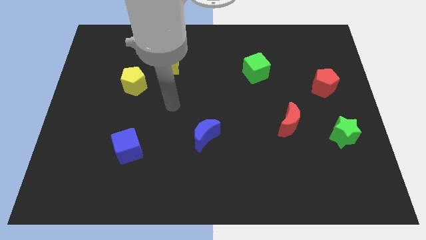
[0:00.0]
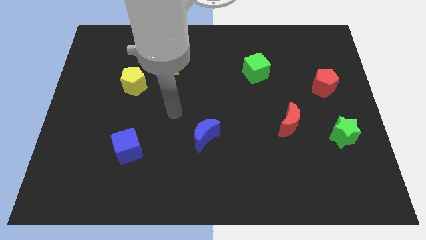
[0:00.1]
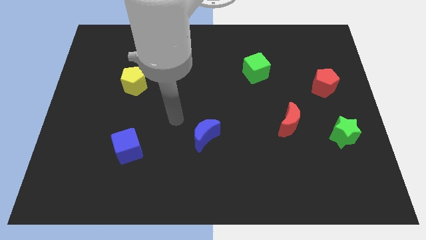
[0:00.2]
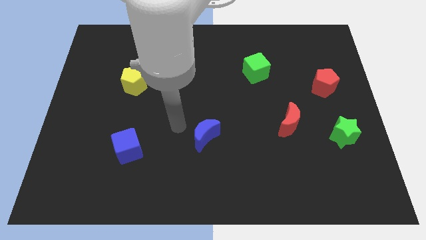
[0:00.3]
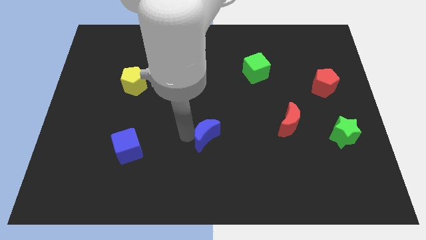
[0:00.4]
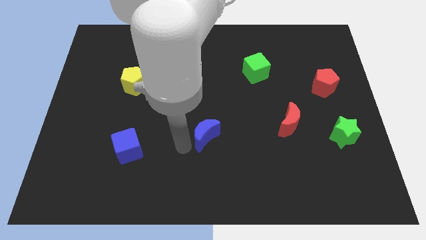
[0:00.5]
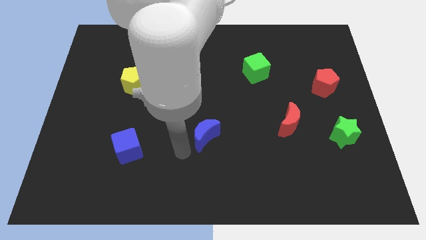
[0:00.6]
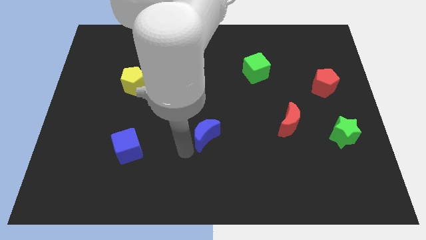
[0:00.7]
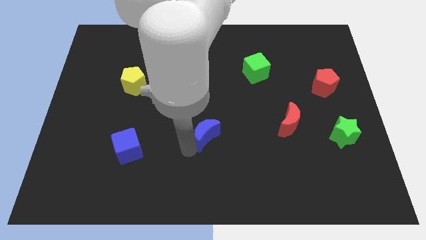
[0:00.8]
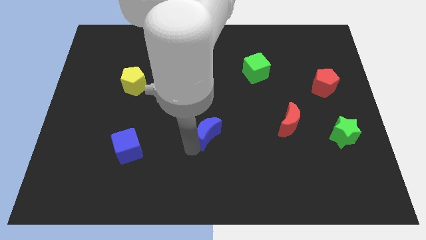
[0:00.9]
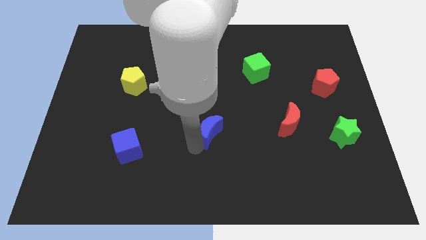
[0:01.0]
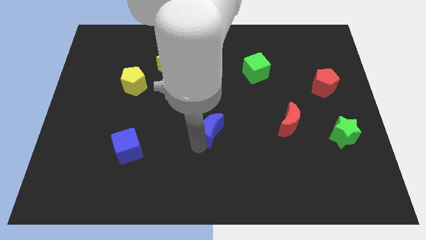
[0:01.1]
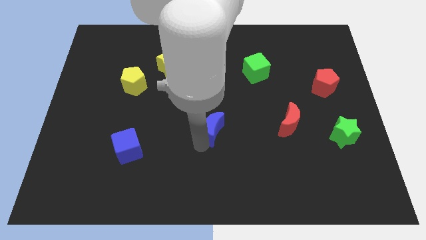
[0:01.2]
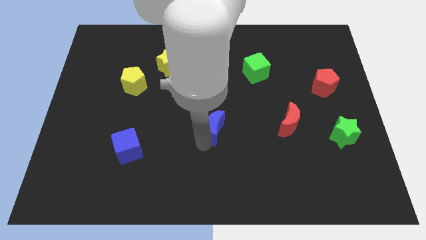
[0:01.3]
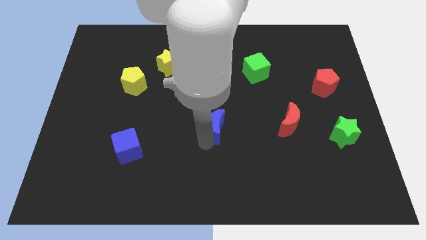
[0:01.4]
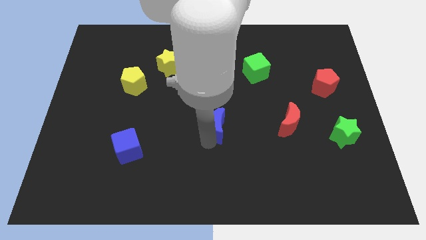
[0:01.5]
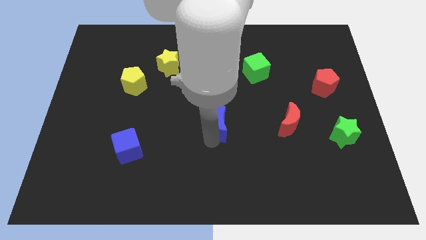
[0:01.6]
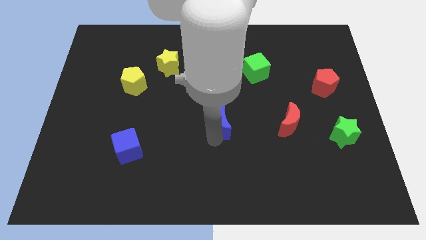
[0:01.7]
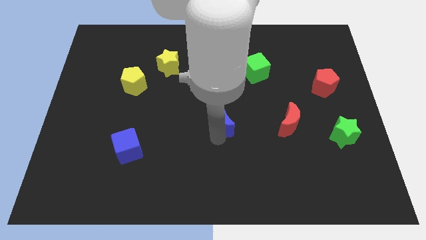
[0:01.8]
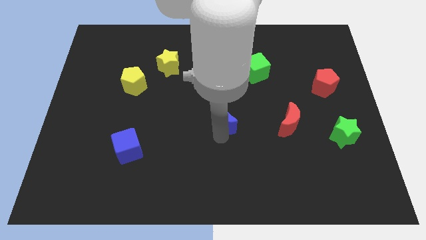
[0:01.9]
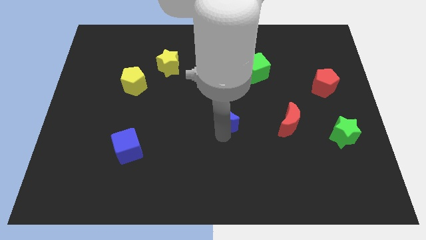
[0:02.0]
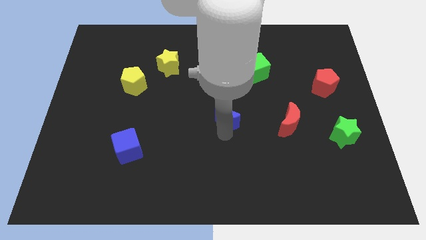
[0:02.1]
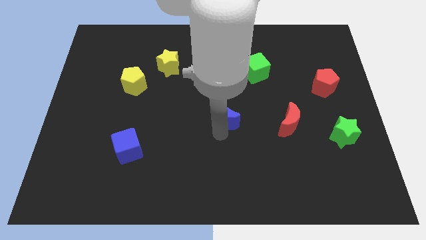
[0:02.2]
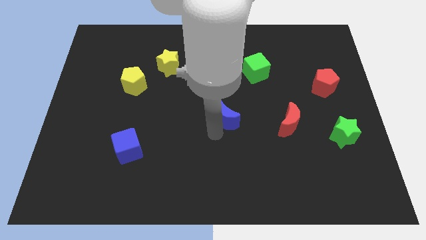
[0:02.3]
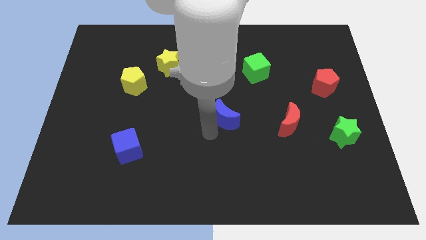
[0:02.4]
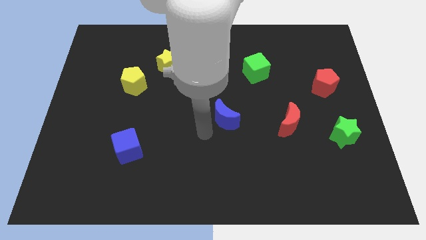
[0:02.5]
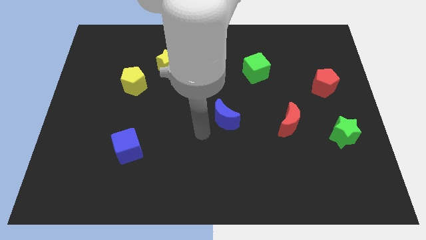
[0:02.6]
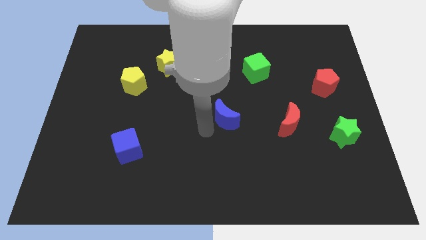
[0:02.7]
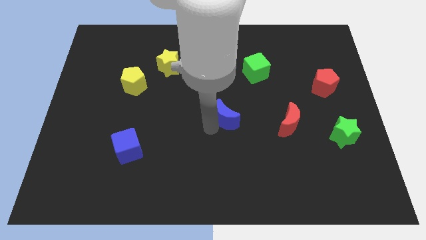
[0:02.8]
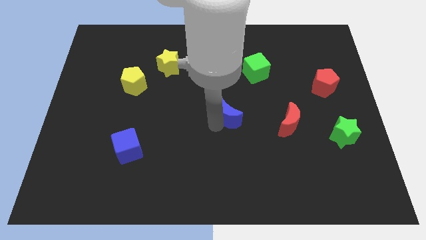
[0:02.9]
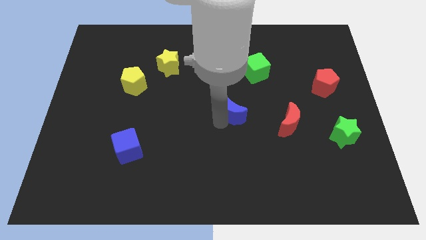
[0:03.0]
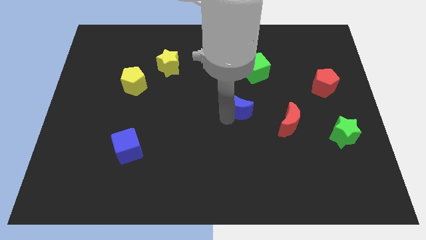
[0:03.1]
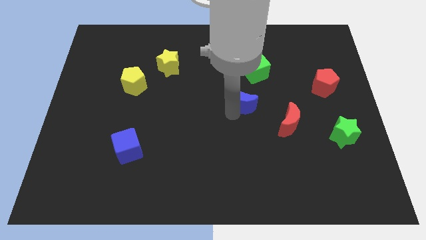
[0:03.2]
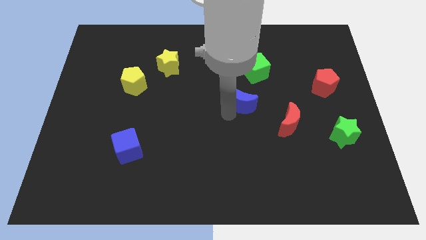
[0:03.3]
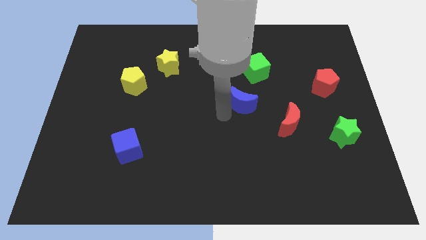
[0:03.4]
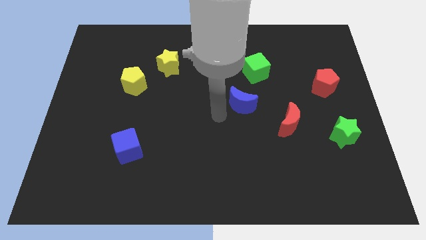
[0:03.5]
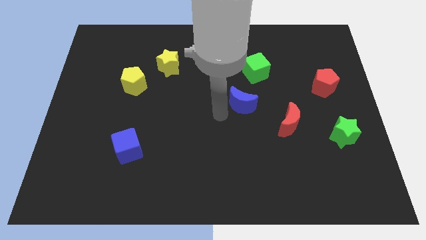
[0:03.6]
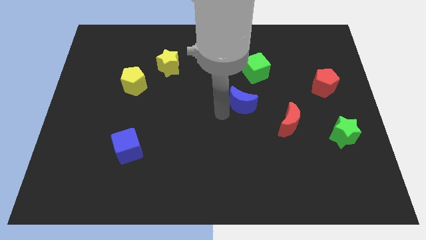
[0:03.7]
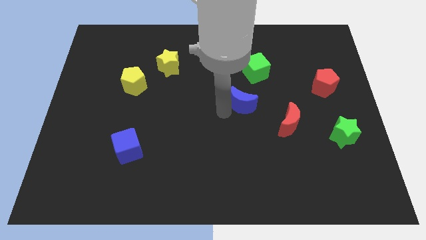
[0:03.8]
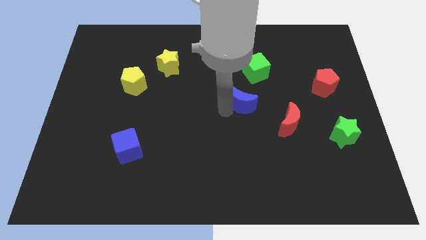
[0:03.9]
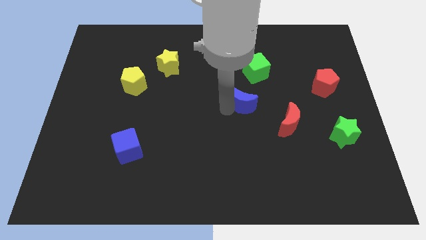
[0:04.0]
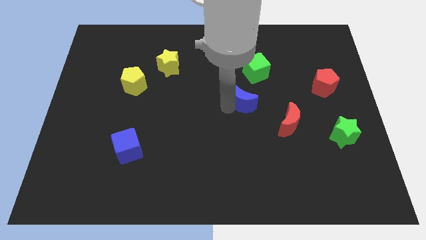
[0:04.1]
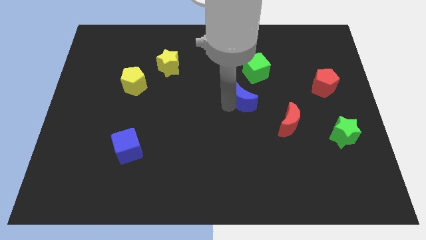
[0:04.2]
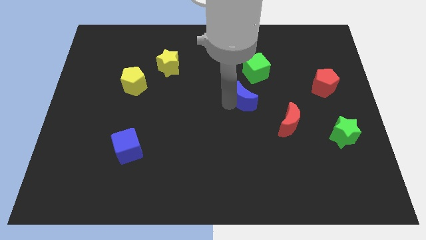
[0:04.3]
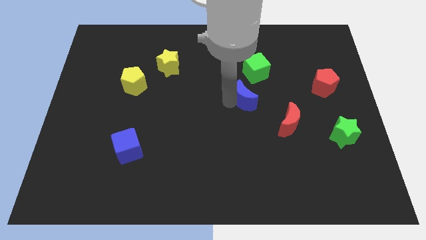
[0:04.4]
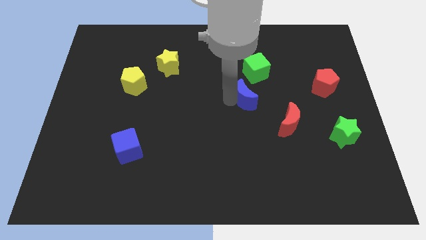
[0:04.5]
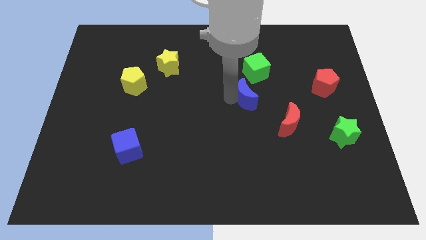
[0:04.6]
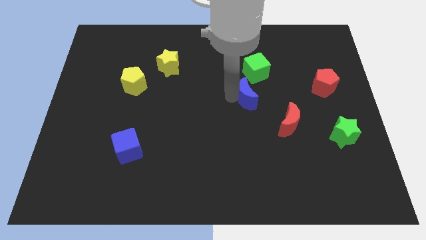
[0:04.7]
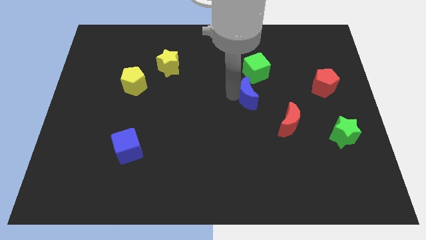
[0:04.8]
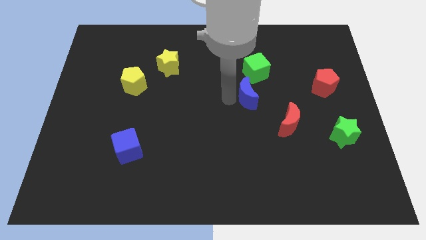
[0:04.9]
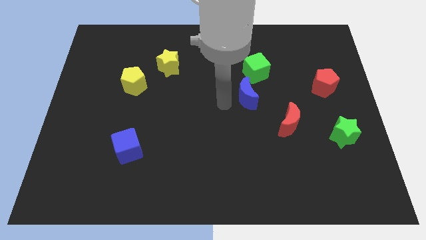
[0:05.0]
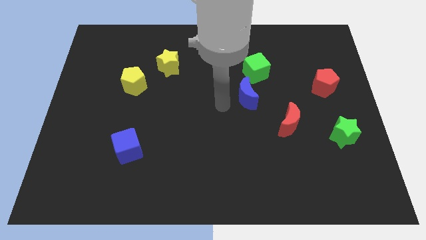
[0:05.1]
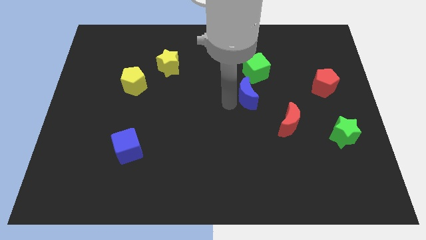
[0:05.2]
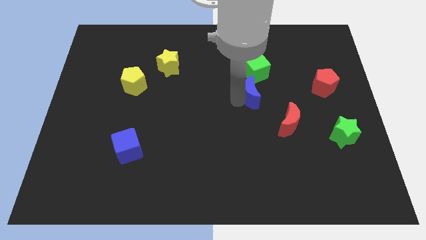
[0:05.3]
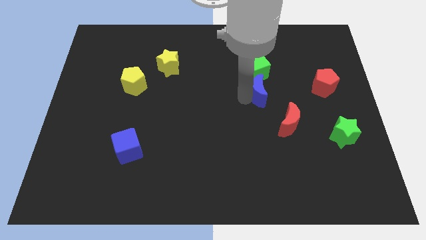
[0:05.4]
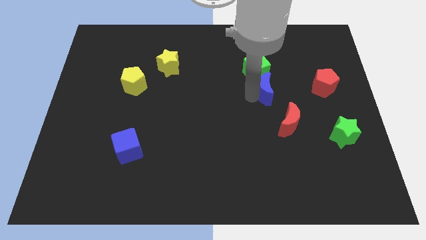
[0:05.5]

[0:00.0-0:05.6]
push the blue moon diagonally down and to the right of the green cube

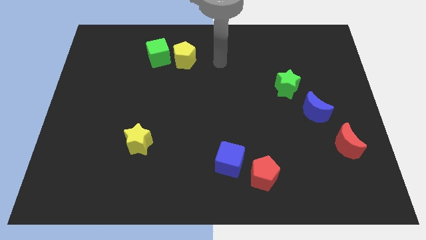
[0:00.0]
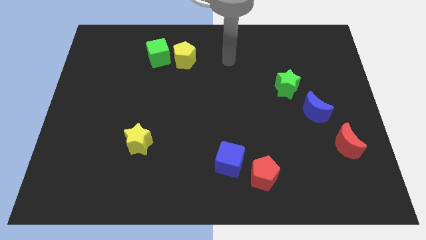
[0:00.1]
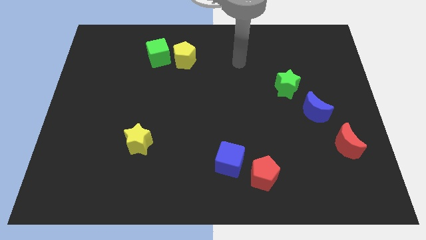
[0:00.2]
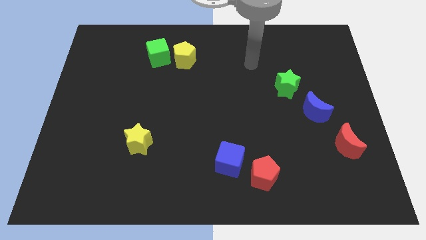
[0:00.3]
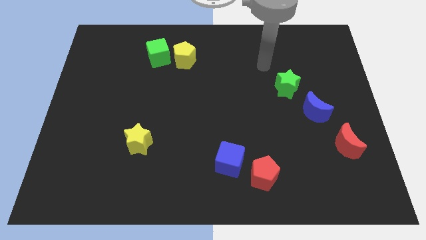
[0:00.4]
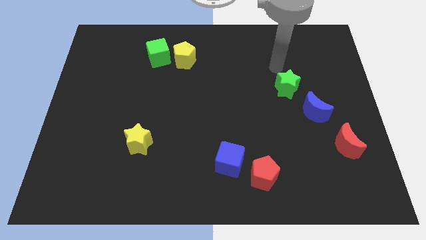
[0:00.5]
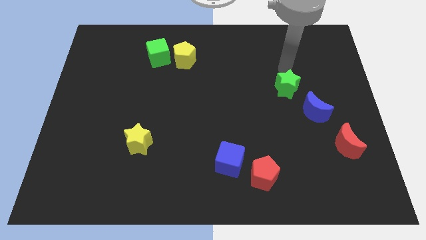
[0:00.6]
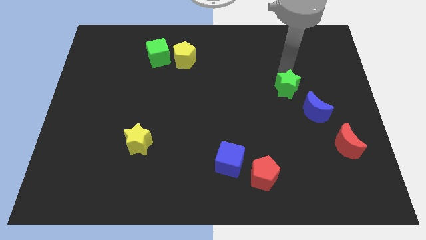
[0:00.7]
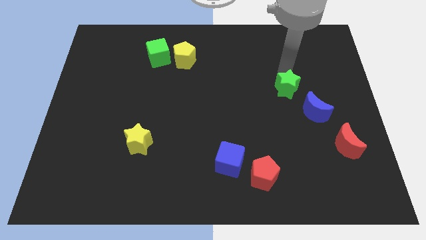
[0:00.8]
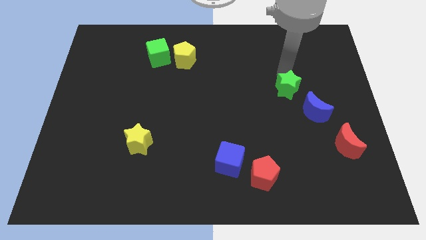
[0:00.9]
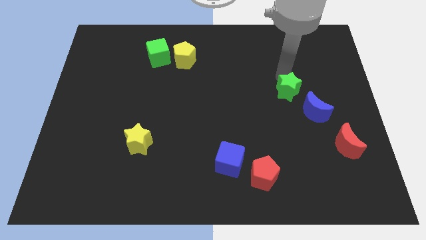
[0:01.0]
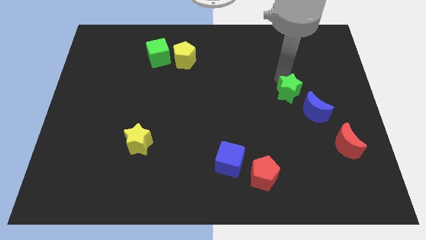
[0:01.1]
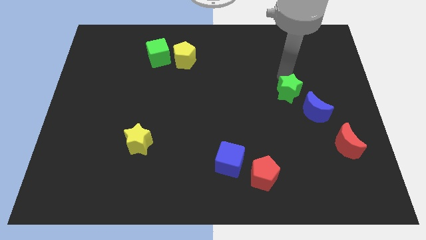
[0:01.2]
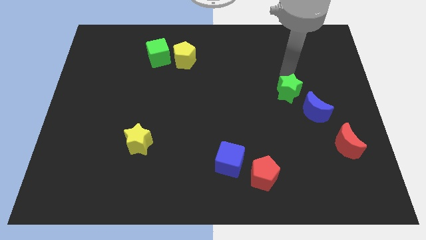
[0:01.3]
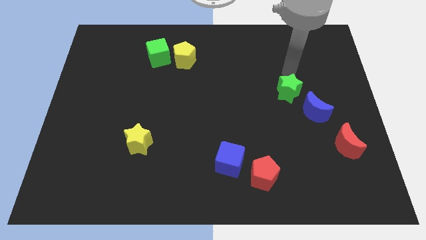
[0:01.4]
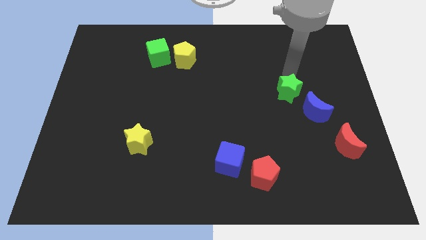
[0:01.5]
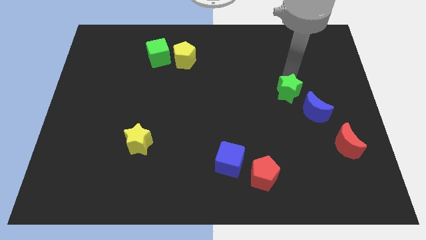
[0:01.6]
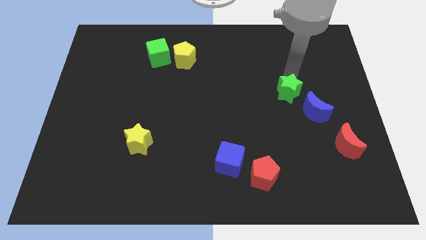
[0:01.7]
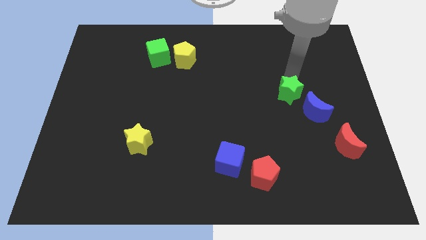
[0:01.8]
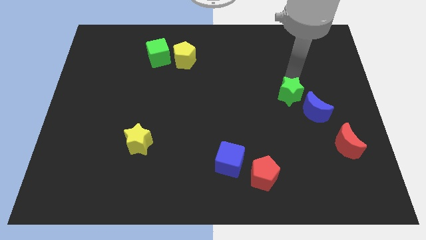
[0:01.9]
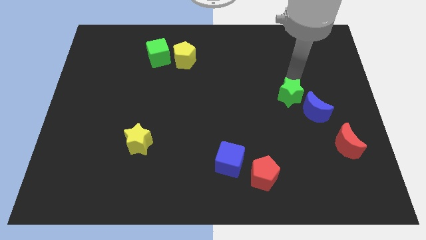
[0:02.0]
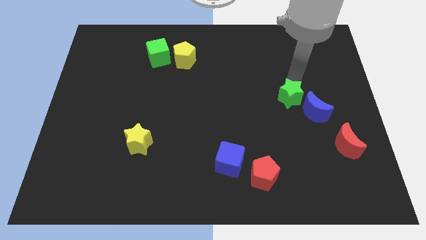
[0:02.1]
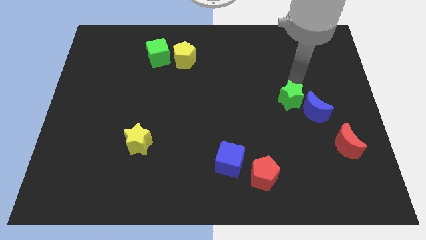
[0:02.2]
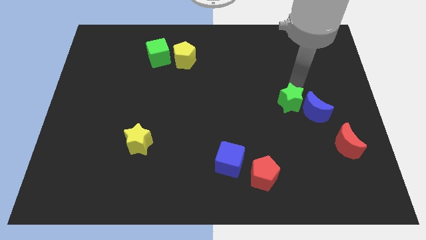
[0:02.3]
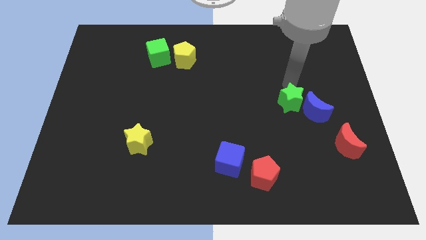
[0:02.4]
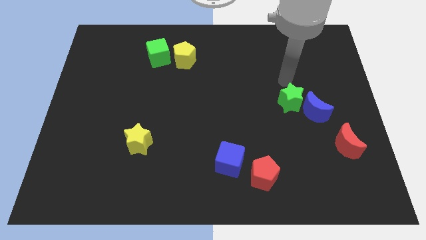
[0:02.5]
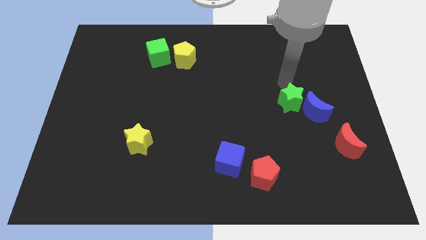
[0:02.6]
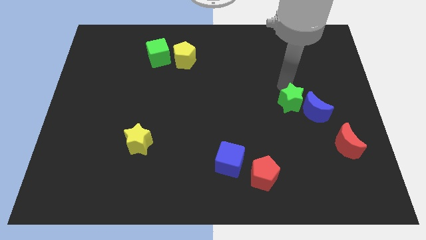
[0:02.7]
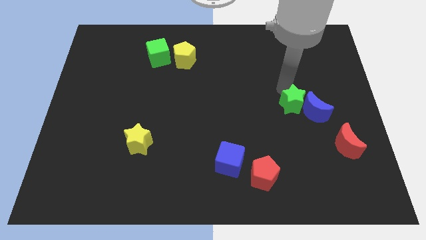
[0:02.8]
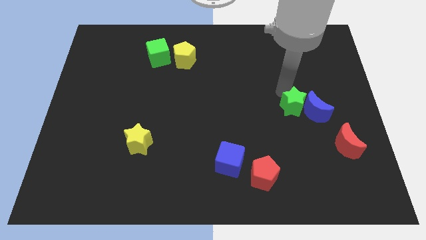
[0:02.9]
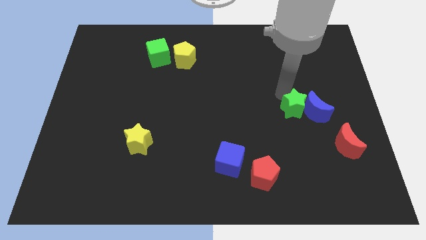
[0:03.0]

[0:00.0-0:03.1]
put the green star diagonally down and to the left of the blue moon
